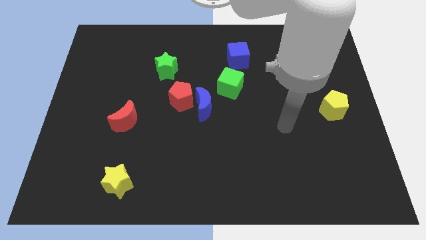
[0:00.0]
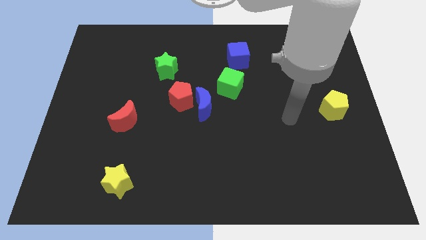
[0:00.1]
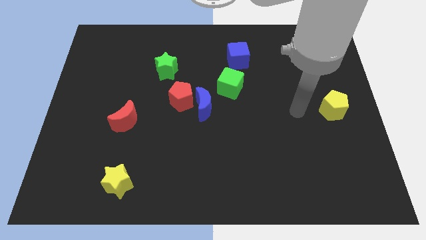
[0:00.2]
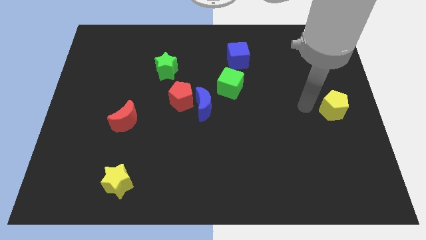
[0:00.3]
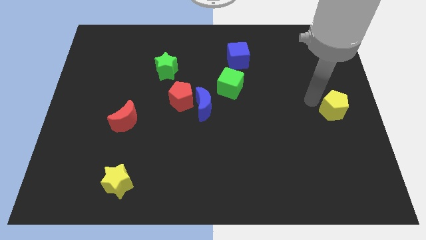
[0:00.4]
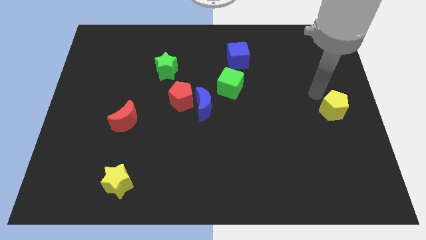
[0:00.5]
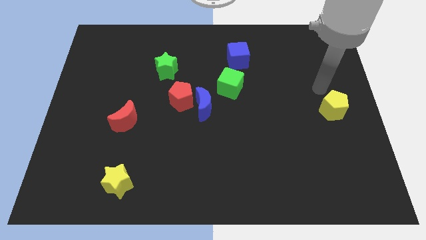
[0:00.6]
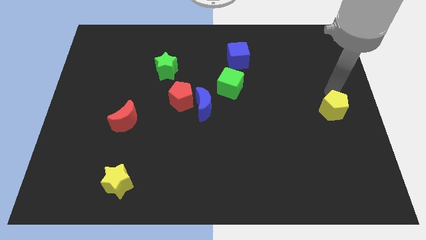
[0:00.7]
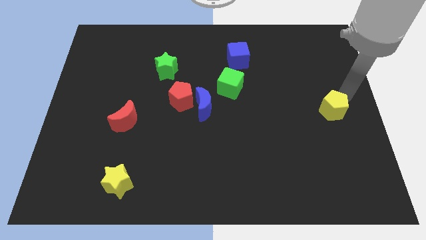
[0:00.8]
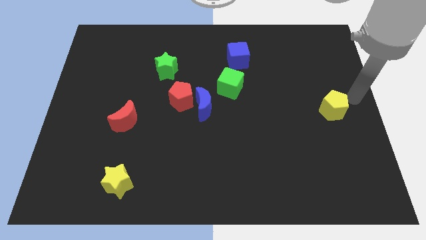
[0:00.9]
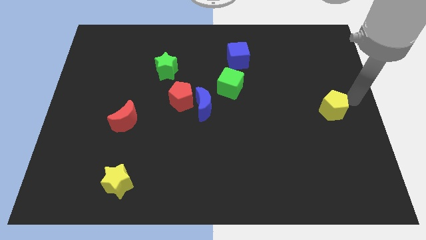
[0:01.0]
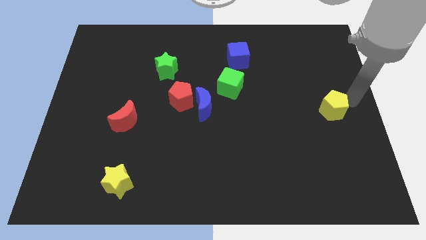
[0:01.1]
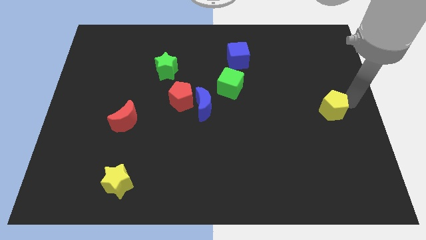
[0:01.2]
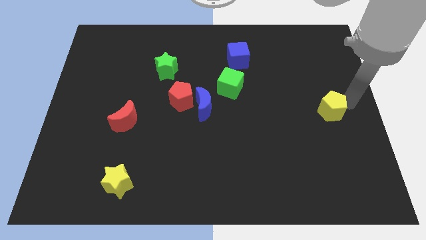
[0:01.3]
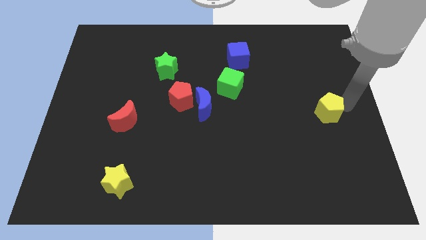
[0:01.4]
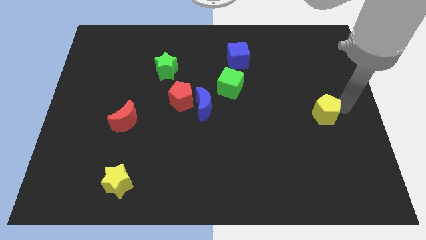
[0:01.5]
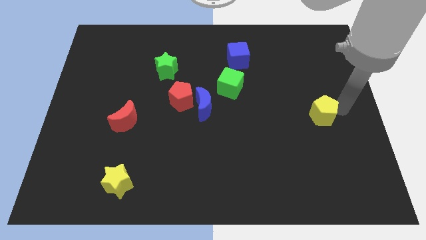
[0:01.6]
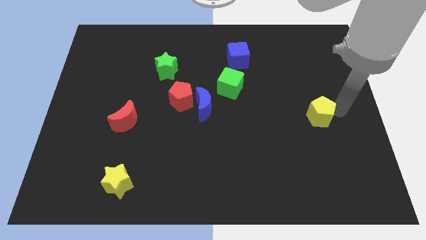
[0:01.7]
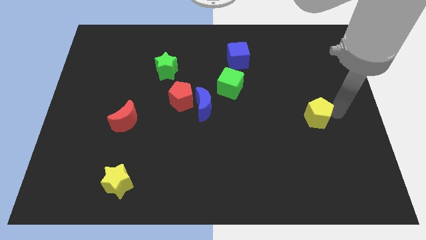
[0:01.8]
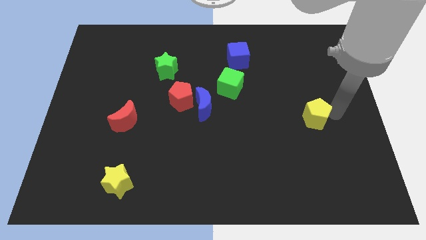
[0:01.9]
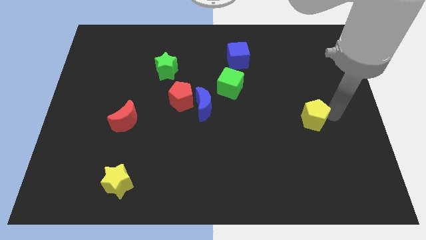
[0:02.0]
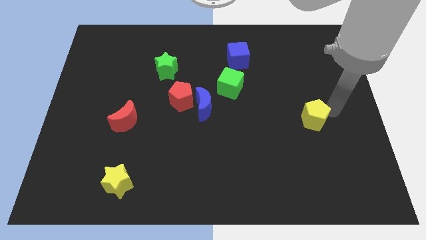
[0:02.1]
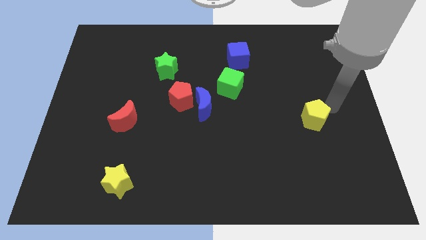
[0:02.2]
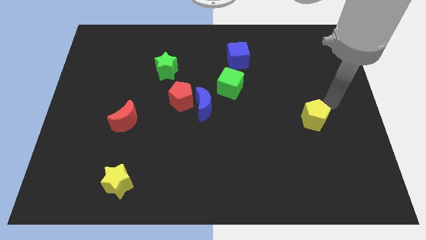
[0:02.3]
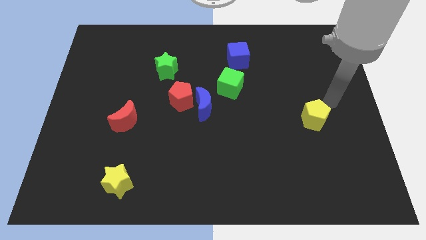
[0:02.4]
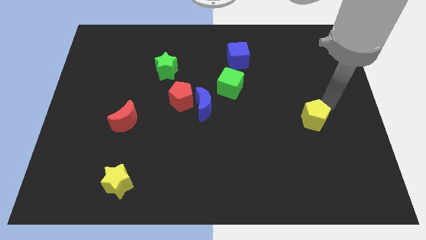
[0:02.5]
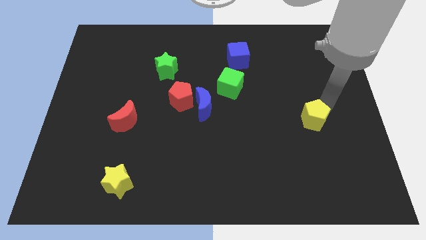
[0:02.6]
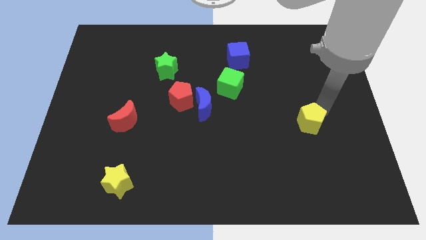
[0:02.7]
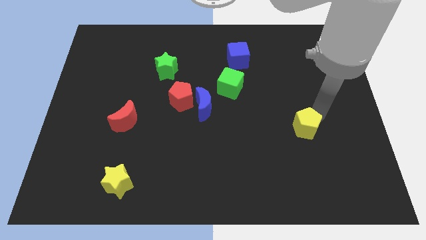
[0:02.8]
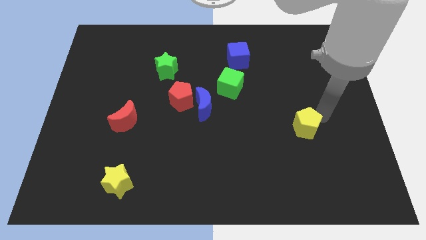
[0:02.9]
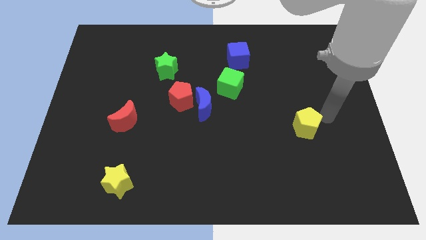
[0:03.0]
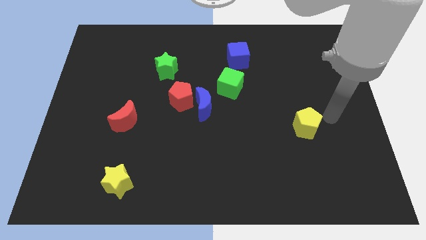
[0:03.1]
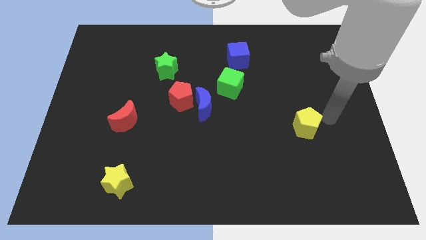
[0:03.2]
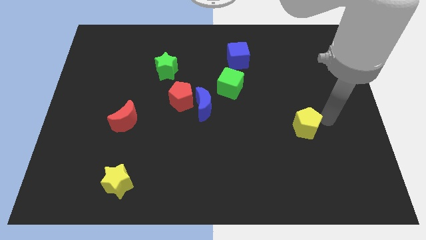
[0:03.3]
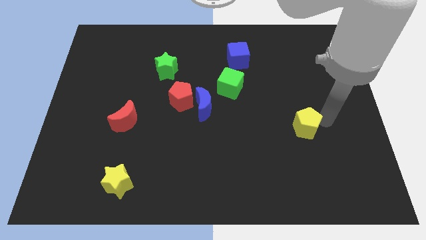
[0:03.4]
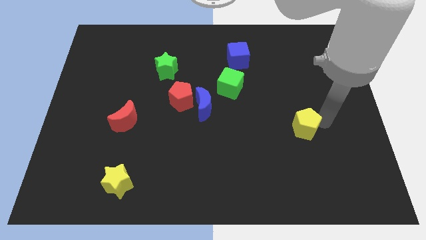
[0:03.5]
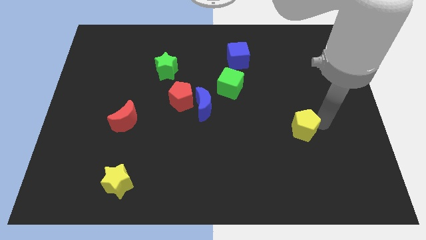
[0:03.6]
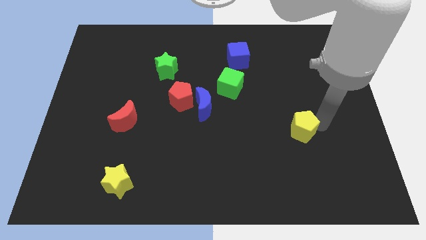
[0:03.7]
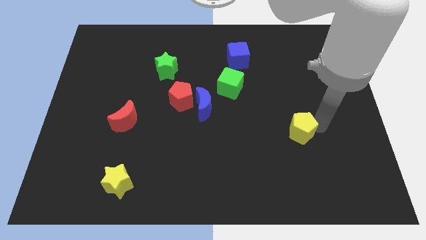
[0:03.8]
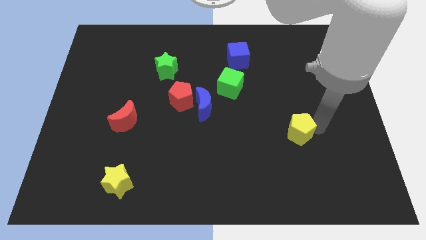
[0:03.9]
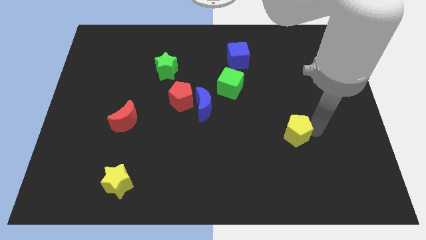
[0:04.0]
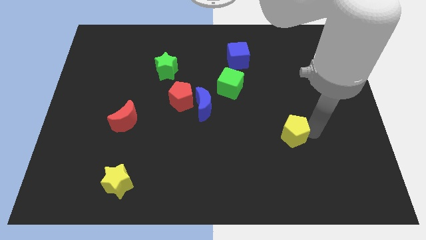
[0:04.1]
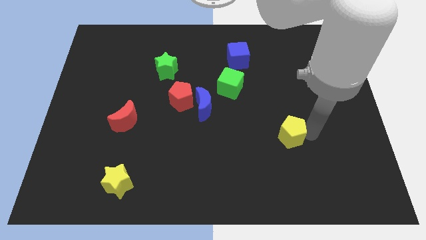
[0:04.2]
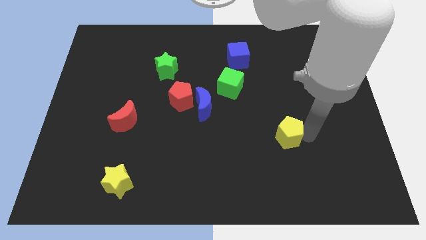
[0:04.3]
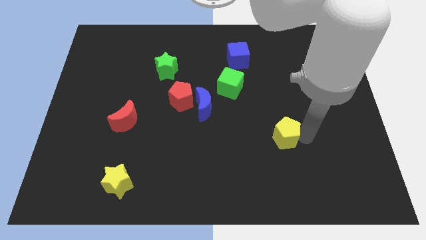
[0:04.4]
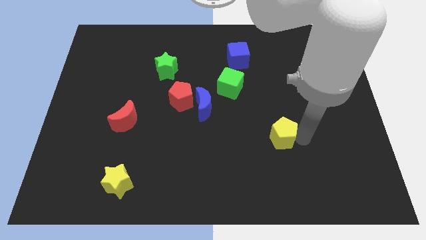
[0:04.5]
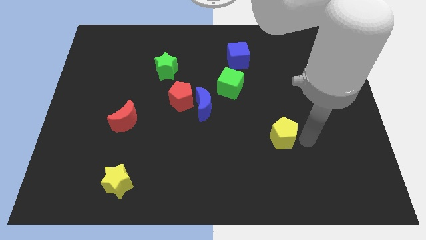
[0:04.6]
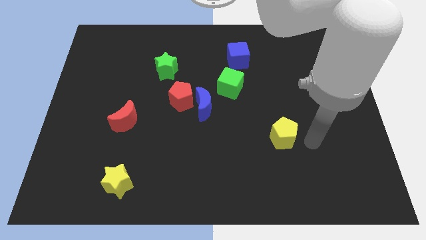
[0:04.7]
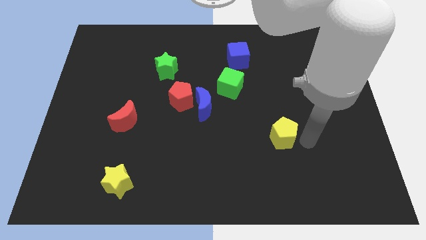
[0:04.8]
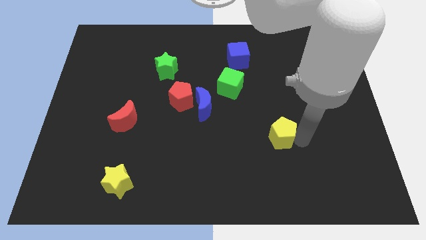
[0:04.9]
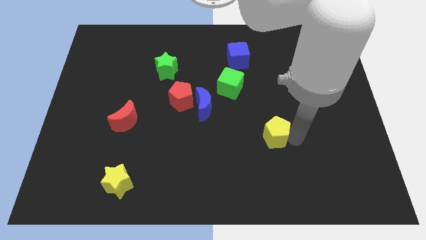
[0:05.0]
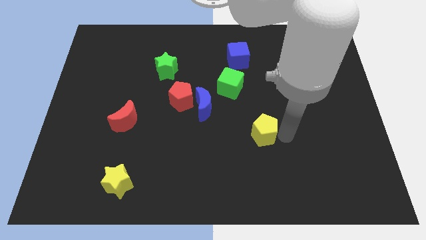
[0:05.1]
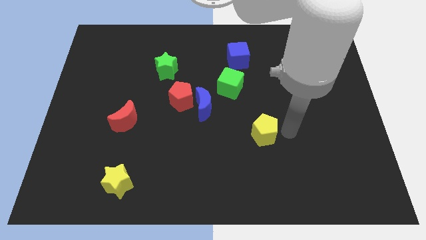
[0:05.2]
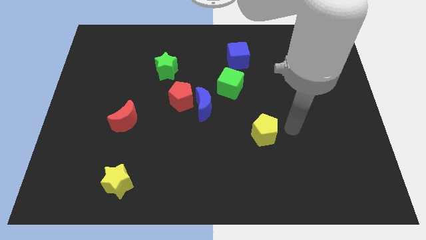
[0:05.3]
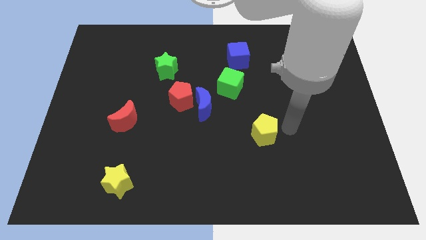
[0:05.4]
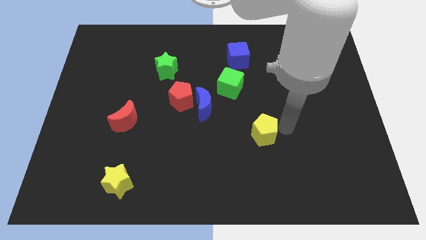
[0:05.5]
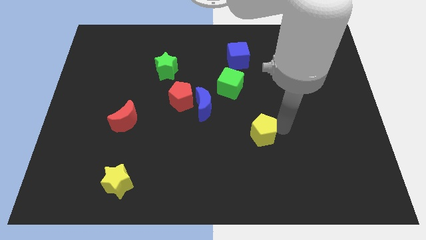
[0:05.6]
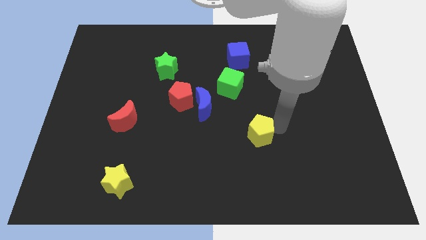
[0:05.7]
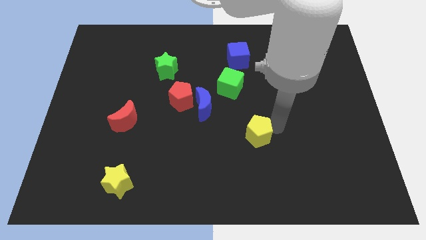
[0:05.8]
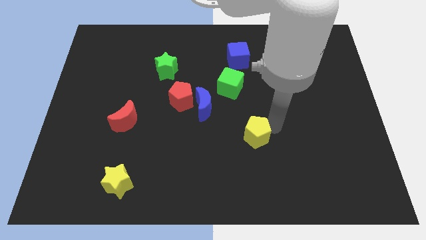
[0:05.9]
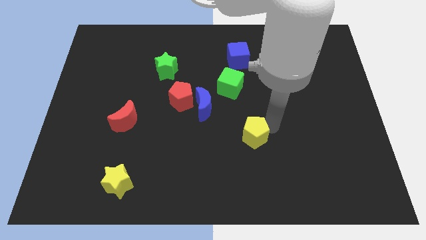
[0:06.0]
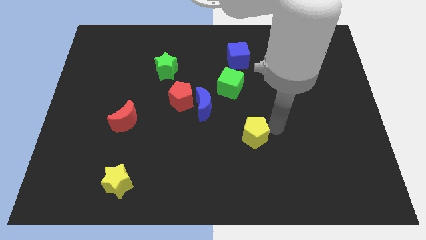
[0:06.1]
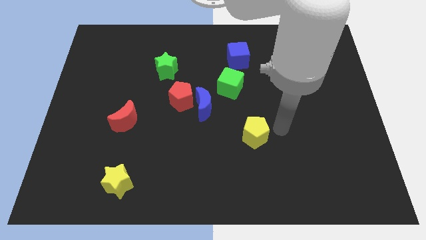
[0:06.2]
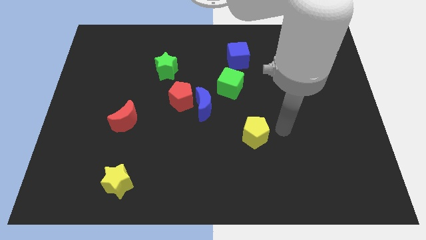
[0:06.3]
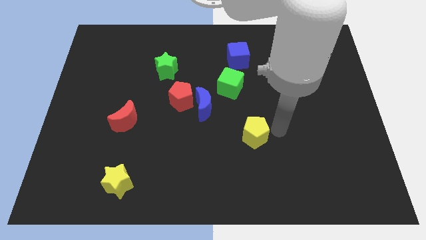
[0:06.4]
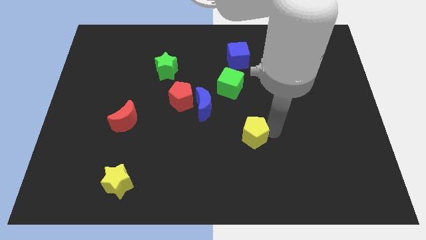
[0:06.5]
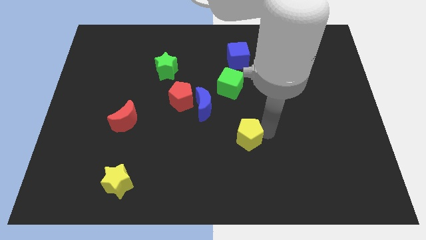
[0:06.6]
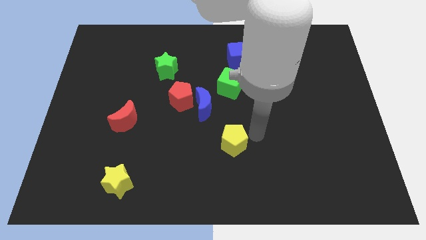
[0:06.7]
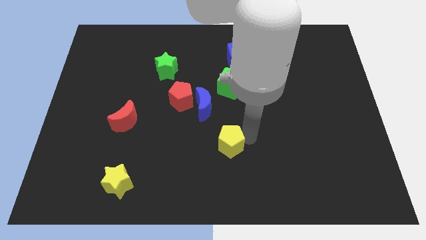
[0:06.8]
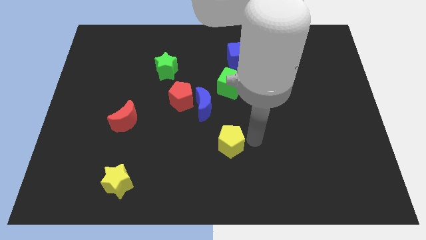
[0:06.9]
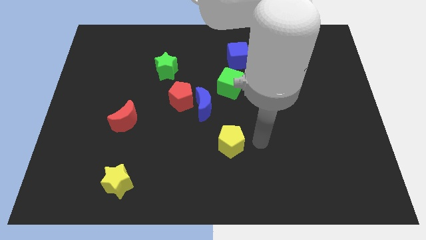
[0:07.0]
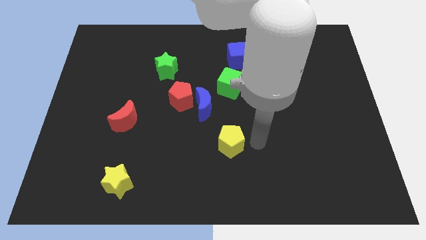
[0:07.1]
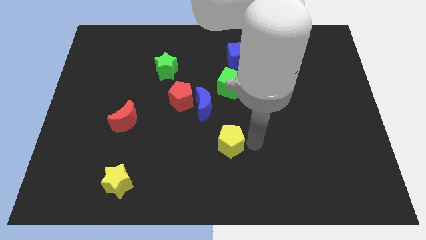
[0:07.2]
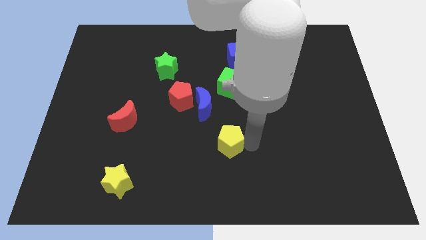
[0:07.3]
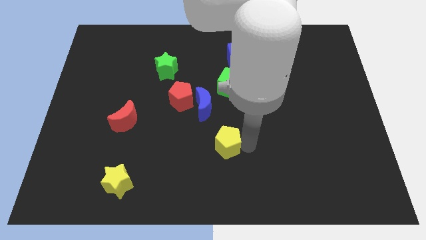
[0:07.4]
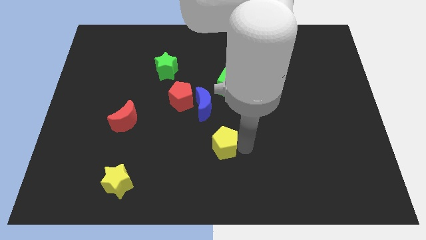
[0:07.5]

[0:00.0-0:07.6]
slide the yellow pentagon to the bottom of the blue moon
